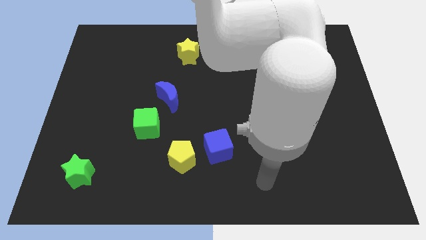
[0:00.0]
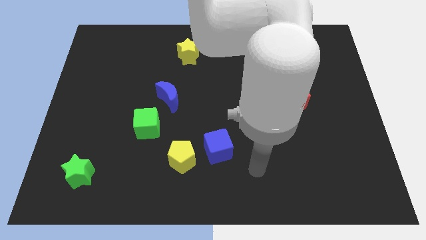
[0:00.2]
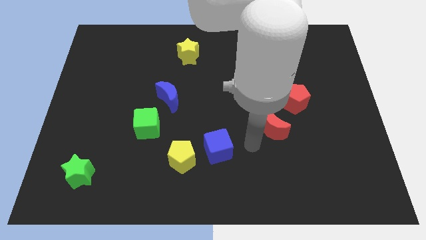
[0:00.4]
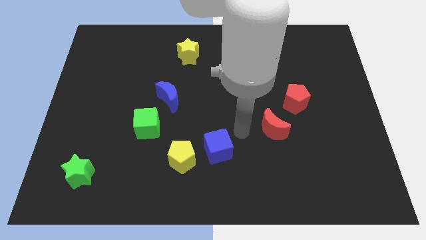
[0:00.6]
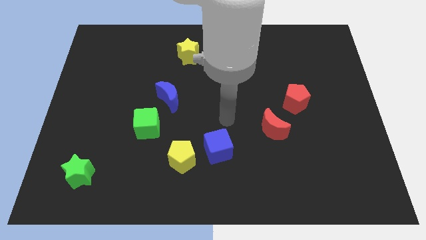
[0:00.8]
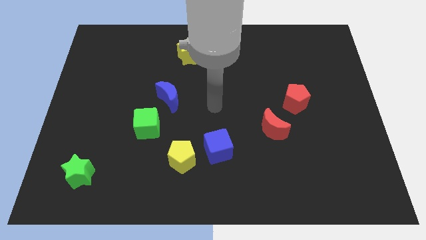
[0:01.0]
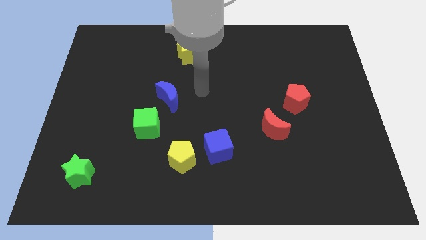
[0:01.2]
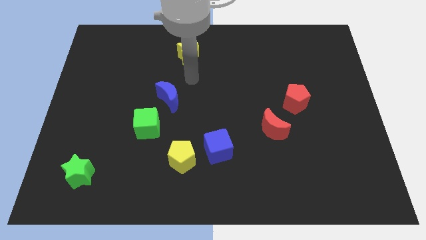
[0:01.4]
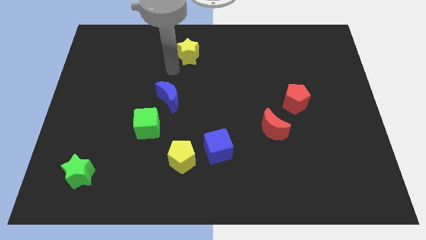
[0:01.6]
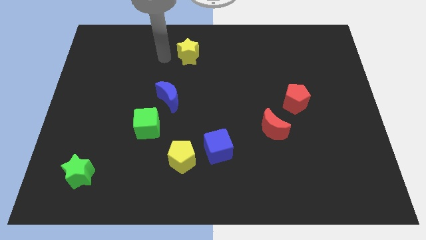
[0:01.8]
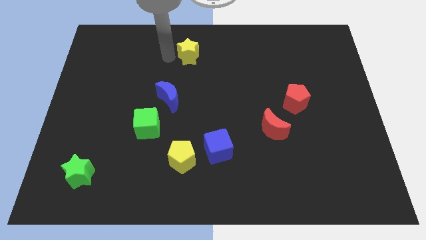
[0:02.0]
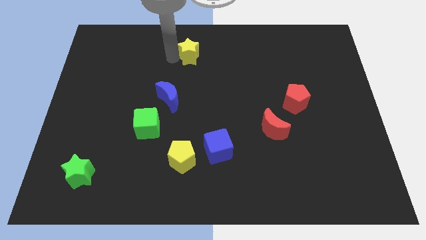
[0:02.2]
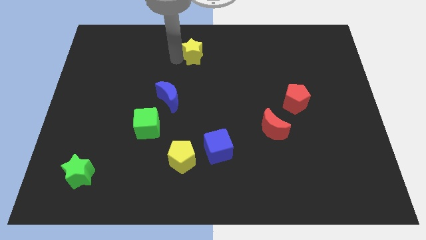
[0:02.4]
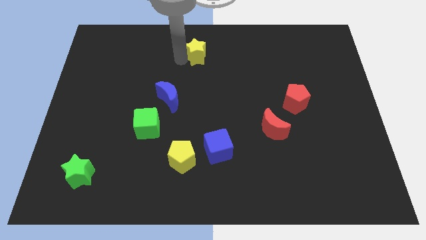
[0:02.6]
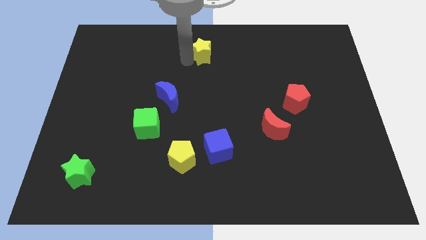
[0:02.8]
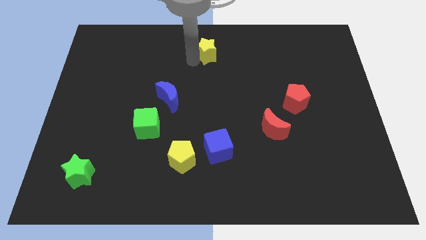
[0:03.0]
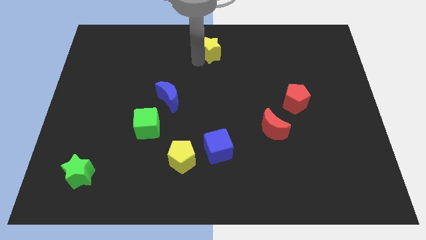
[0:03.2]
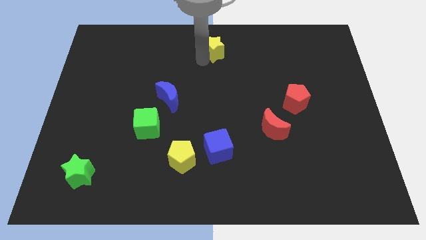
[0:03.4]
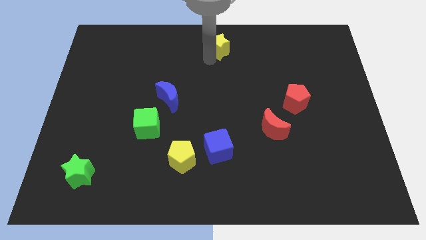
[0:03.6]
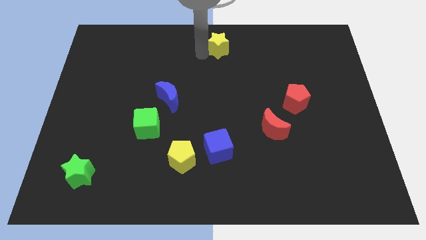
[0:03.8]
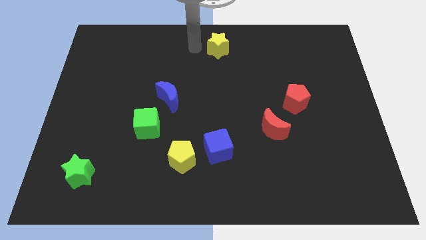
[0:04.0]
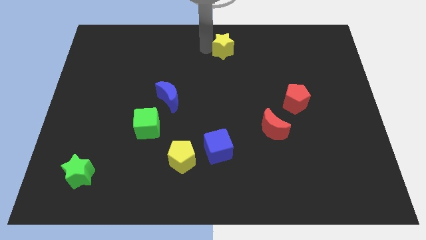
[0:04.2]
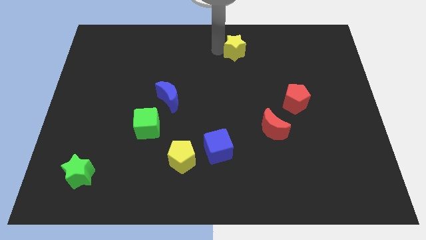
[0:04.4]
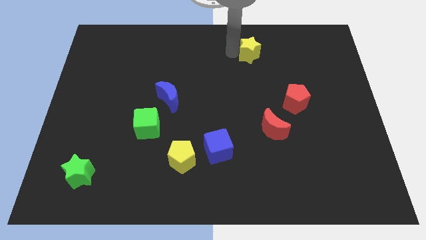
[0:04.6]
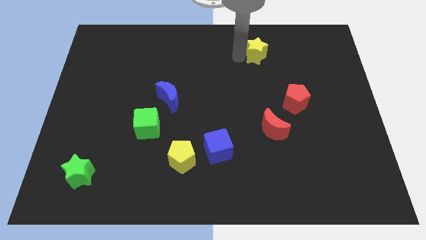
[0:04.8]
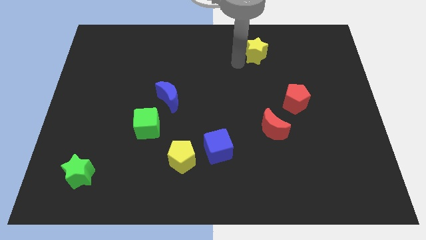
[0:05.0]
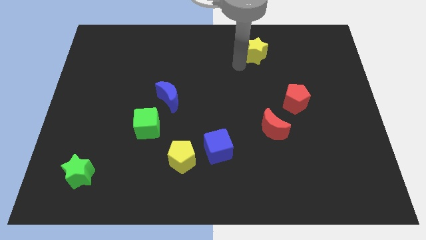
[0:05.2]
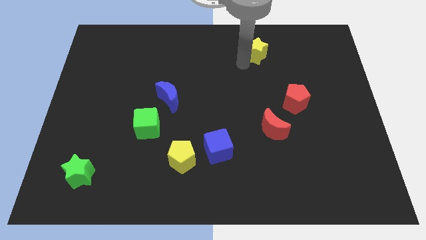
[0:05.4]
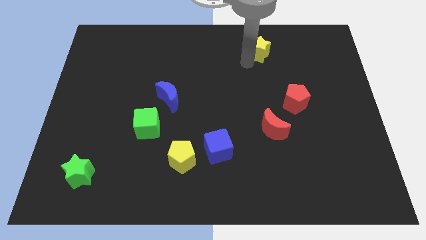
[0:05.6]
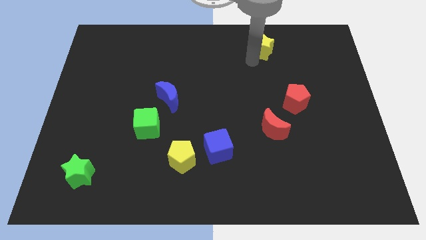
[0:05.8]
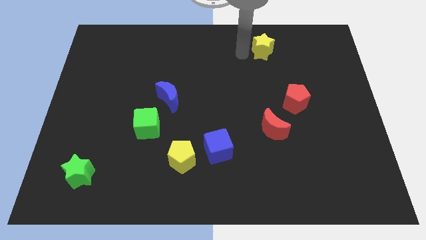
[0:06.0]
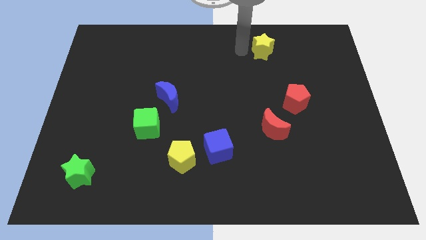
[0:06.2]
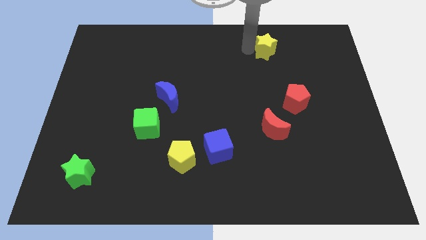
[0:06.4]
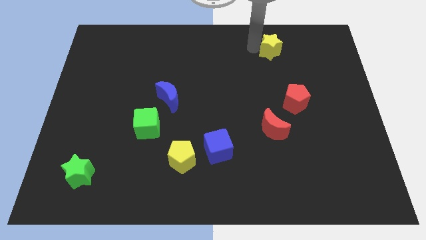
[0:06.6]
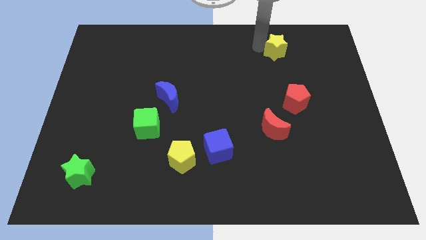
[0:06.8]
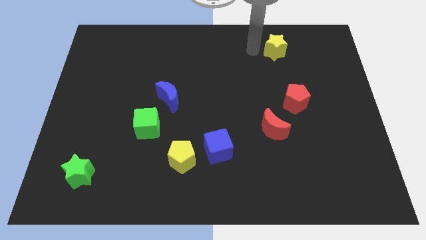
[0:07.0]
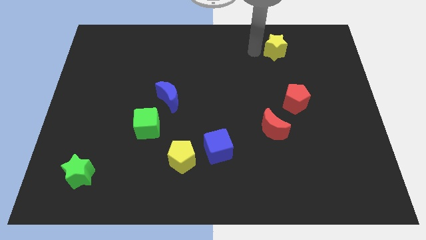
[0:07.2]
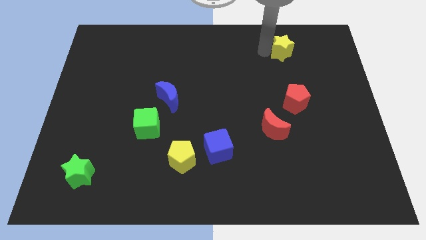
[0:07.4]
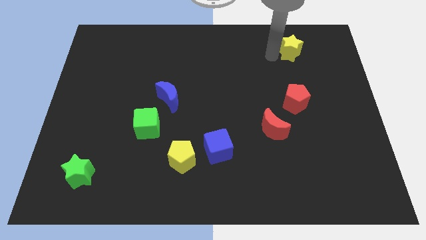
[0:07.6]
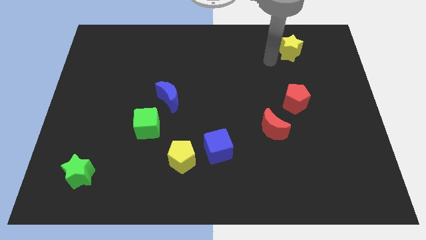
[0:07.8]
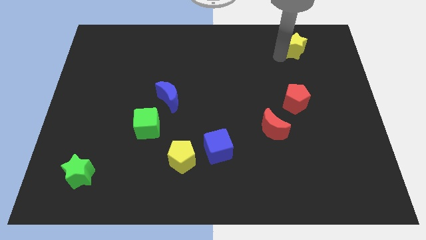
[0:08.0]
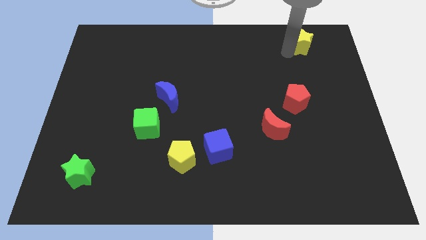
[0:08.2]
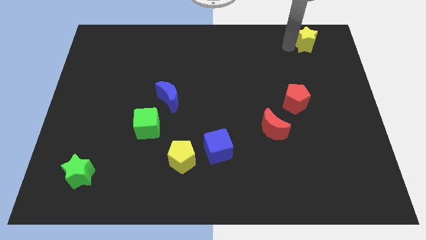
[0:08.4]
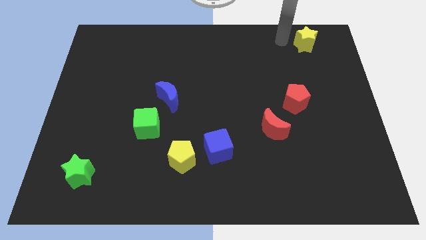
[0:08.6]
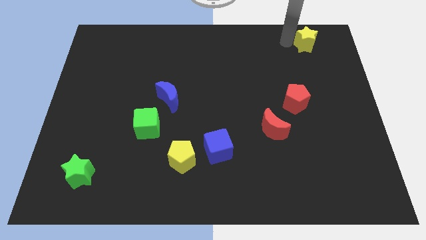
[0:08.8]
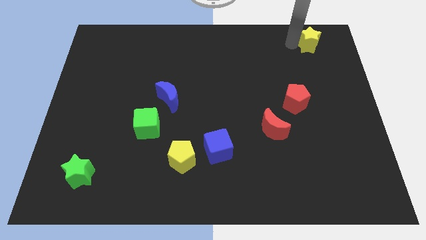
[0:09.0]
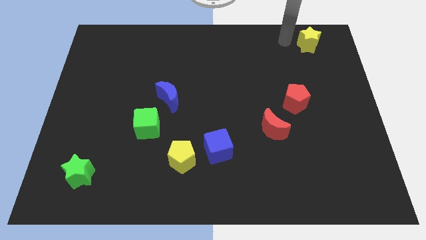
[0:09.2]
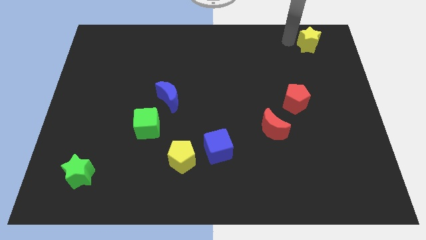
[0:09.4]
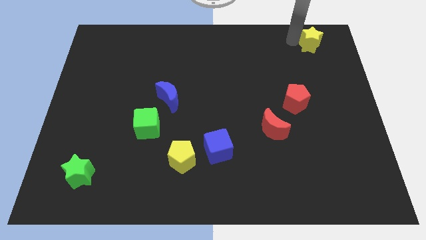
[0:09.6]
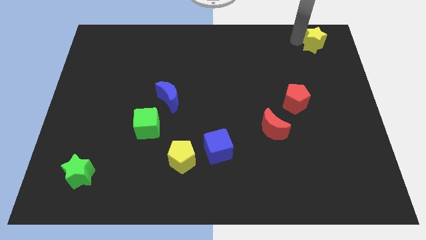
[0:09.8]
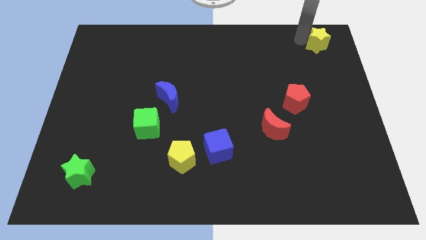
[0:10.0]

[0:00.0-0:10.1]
put the yellow star to the upper right corner

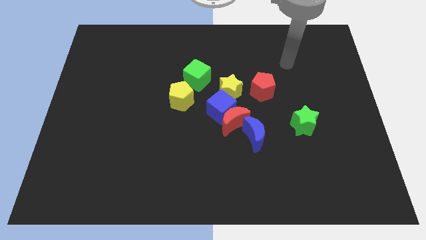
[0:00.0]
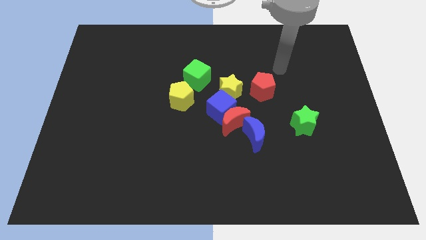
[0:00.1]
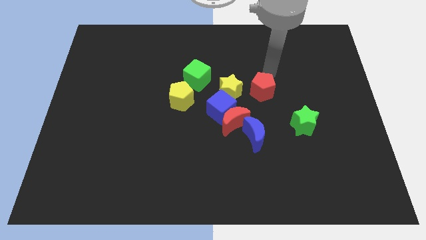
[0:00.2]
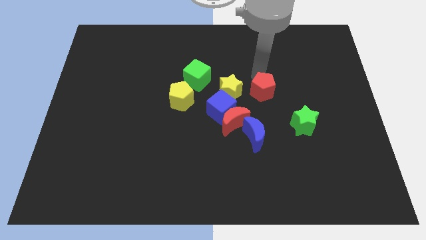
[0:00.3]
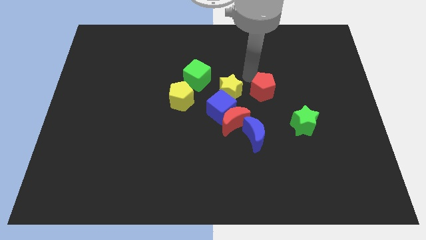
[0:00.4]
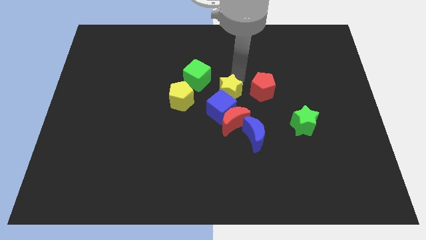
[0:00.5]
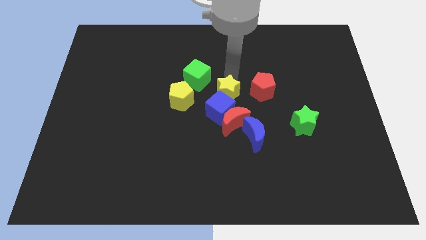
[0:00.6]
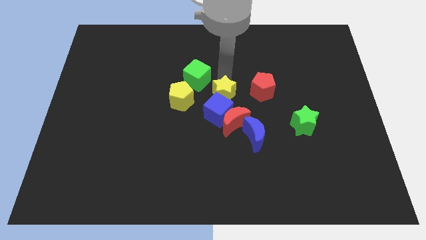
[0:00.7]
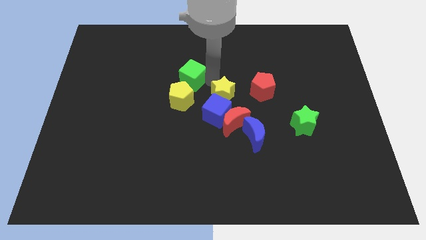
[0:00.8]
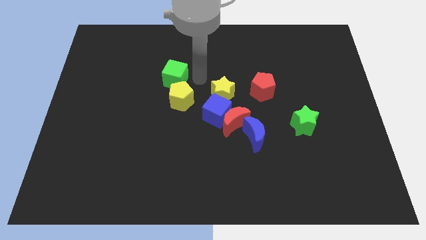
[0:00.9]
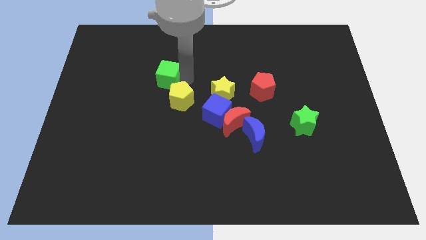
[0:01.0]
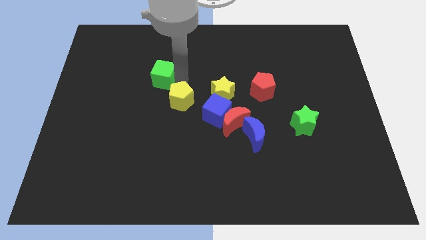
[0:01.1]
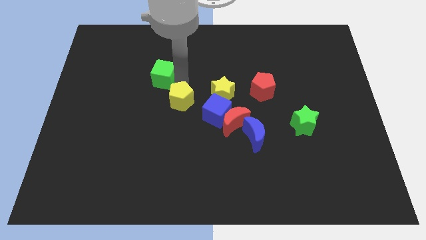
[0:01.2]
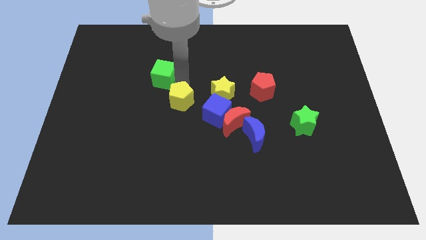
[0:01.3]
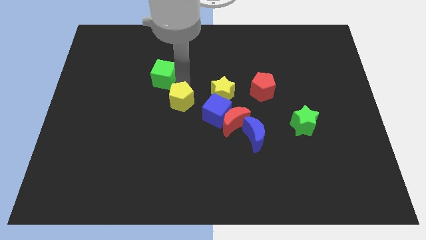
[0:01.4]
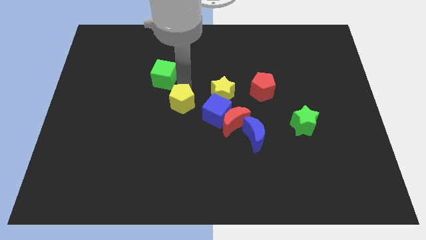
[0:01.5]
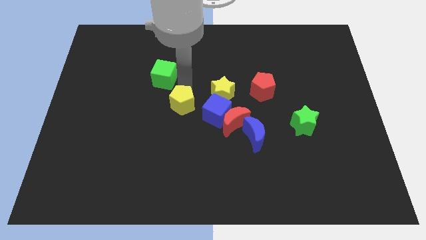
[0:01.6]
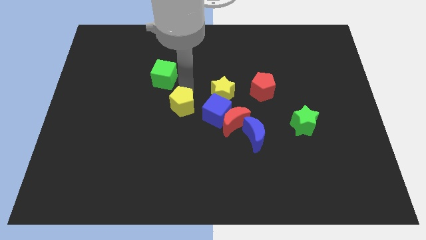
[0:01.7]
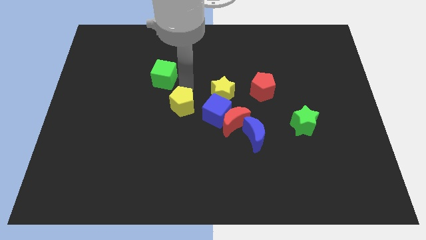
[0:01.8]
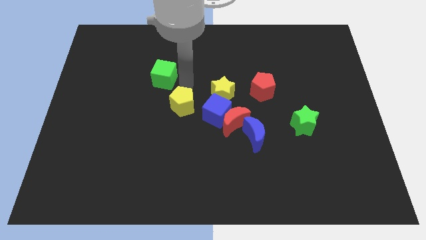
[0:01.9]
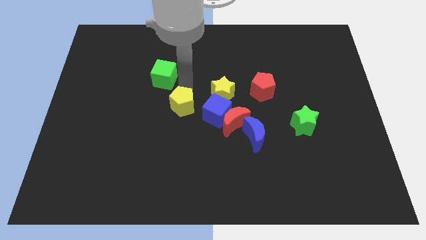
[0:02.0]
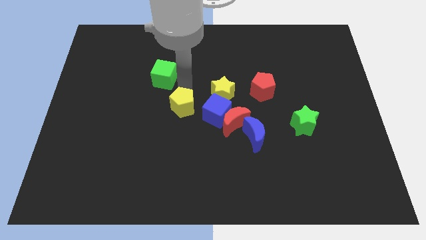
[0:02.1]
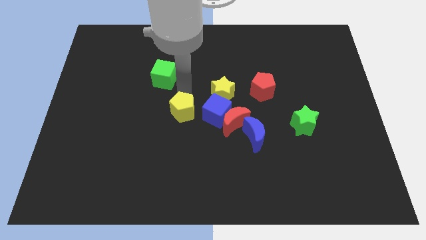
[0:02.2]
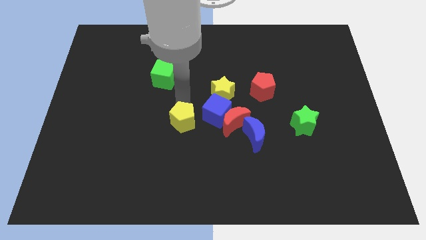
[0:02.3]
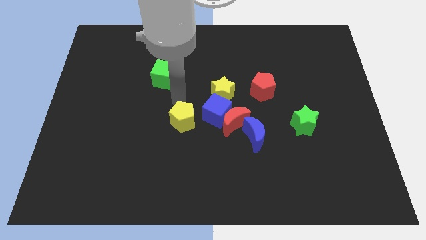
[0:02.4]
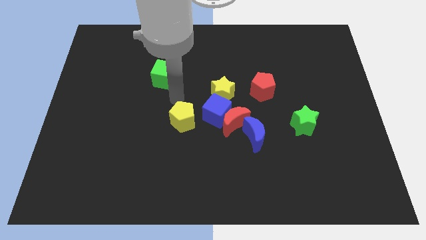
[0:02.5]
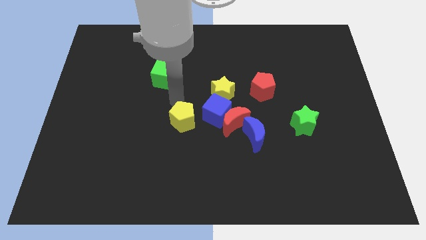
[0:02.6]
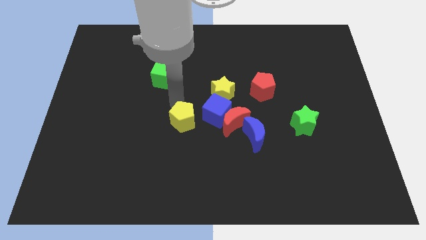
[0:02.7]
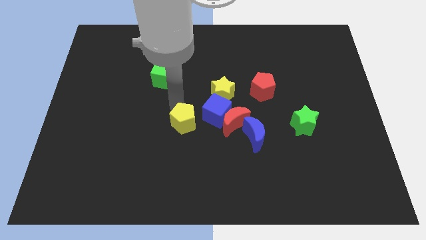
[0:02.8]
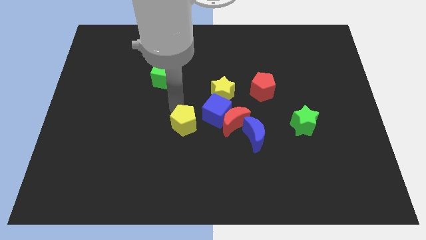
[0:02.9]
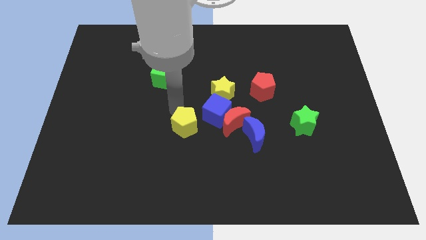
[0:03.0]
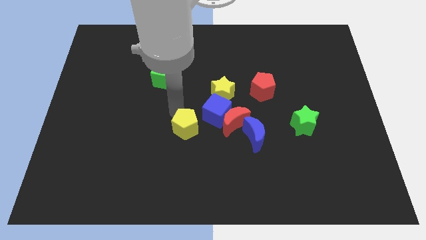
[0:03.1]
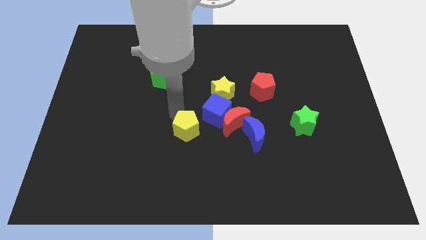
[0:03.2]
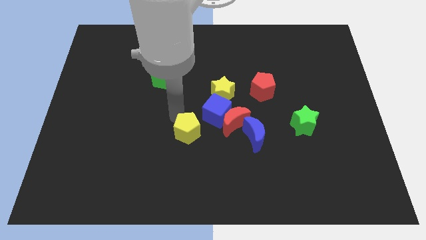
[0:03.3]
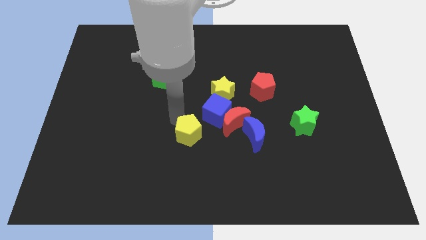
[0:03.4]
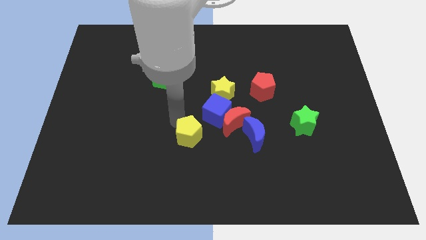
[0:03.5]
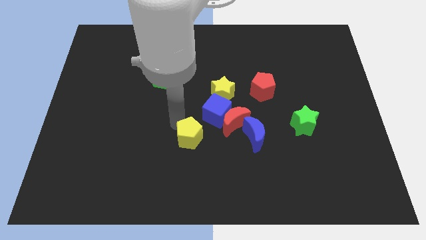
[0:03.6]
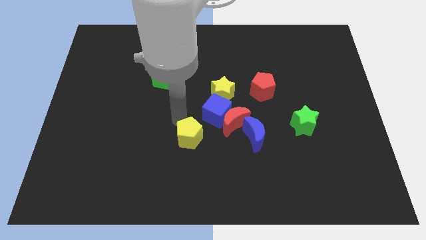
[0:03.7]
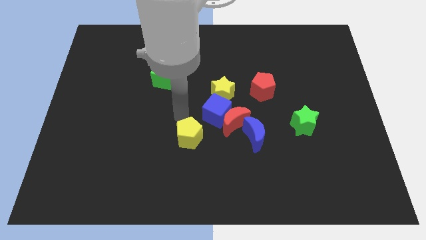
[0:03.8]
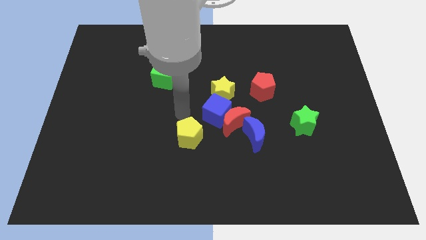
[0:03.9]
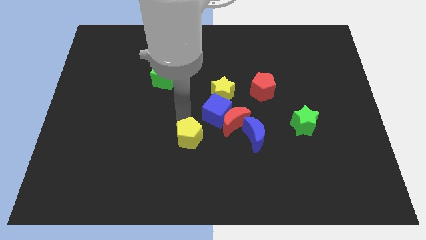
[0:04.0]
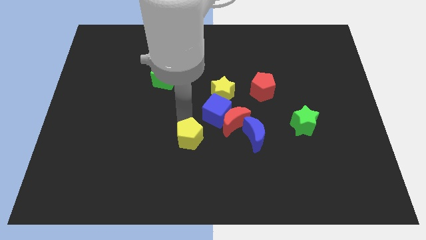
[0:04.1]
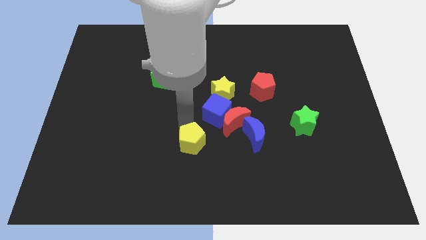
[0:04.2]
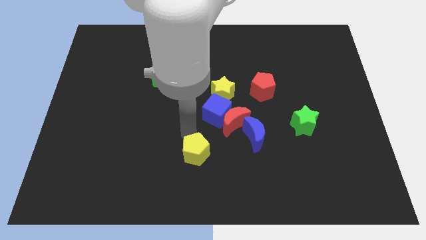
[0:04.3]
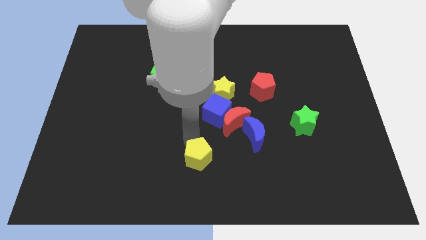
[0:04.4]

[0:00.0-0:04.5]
put the yellow pentagon to the bottom side
